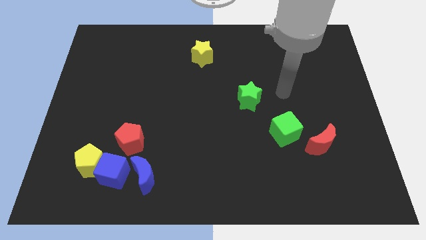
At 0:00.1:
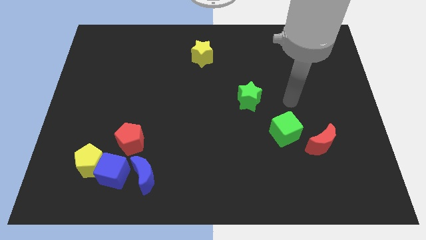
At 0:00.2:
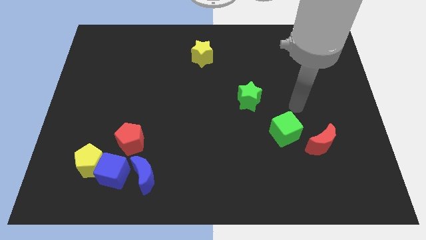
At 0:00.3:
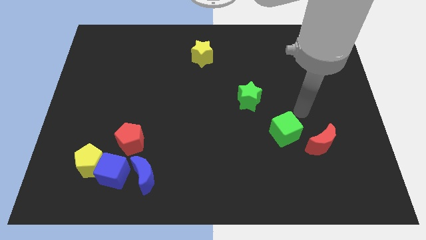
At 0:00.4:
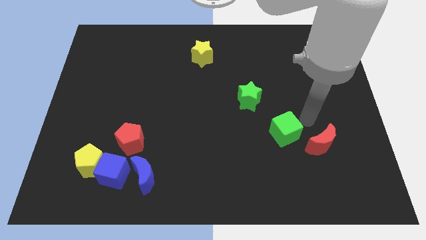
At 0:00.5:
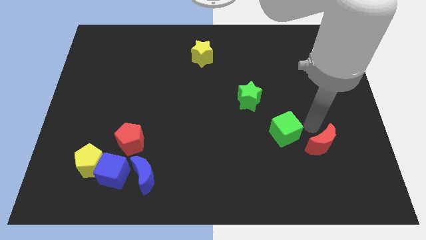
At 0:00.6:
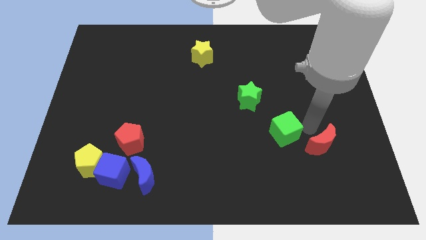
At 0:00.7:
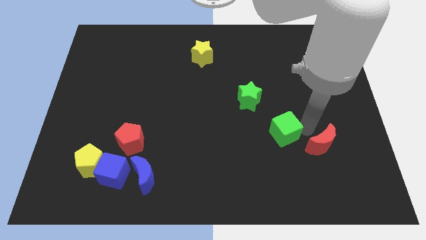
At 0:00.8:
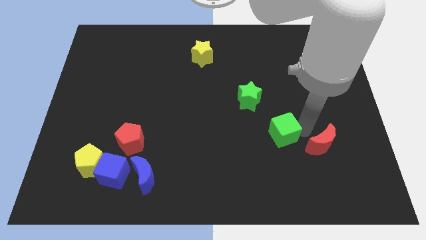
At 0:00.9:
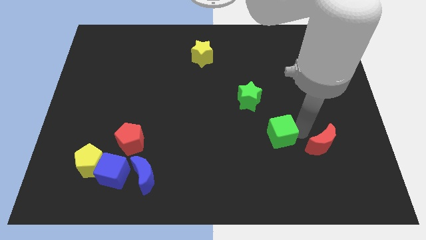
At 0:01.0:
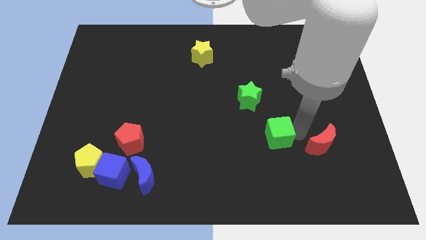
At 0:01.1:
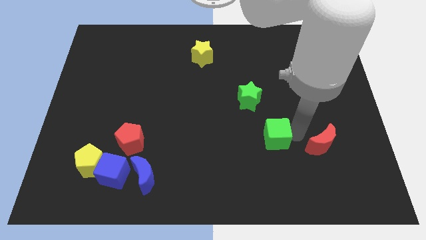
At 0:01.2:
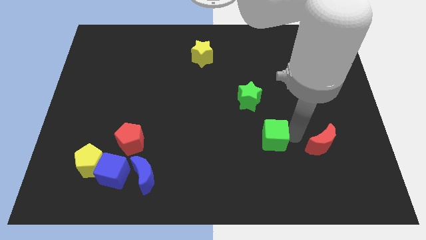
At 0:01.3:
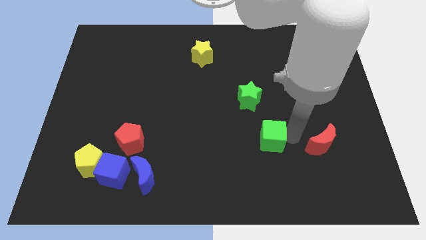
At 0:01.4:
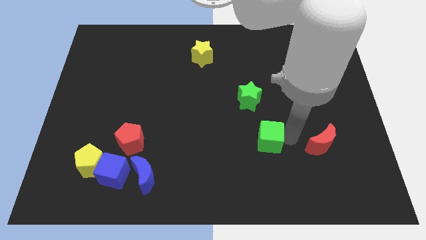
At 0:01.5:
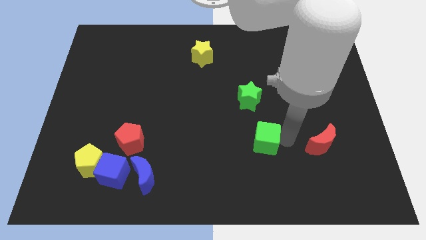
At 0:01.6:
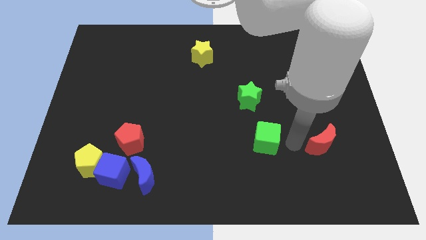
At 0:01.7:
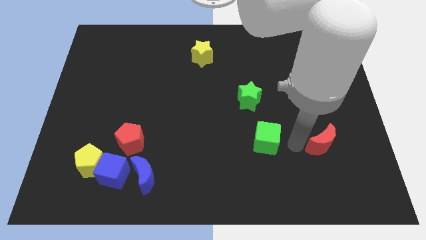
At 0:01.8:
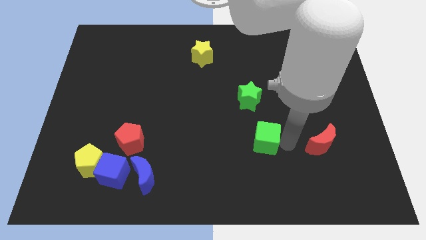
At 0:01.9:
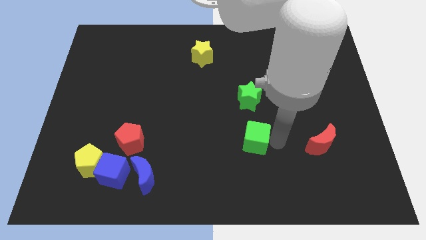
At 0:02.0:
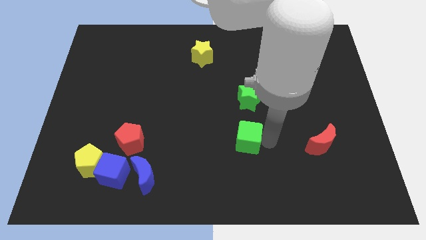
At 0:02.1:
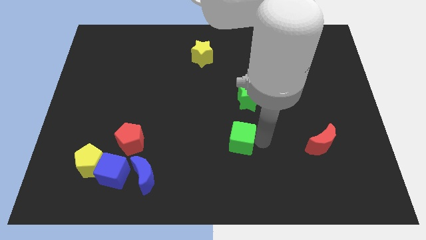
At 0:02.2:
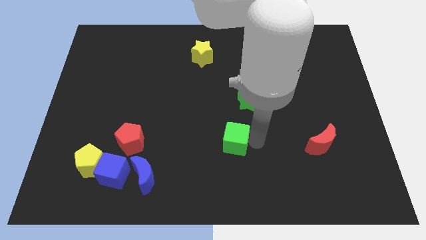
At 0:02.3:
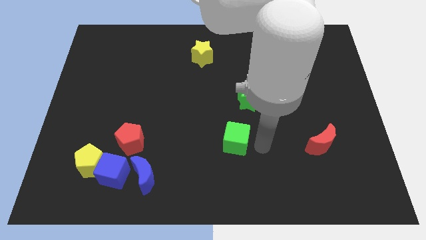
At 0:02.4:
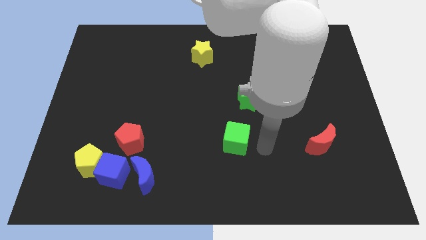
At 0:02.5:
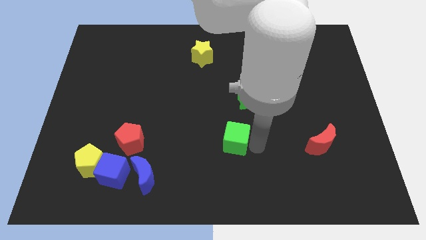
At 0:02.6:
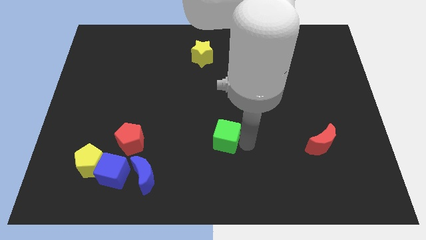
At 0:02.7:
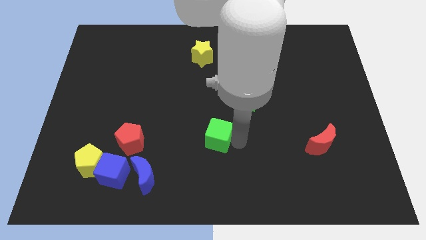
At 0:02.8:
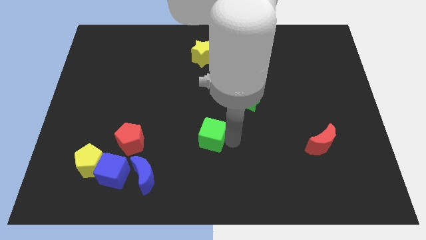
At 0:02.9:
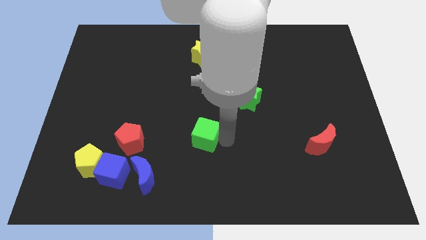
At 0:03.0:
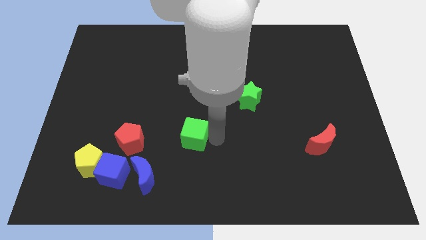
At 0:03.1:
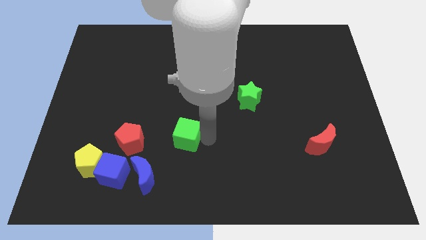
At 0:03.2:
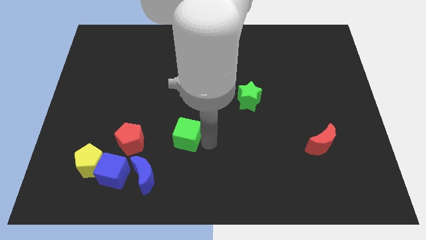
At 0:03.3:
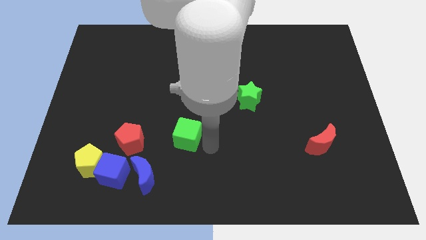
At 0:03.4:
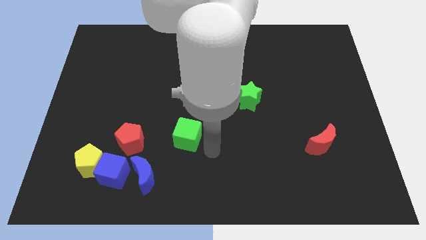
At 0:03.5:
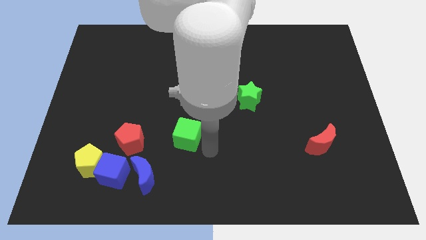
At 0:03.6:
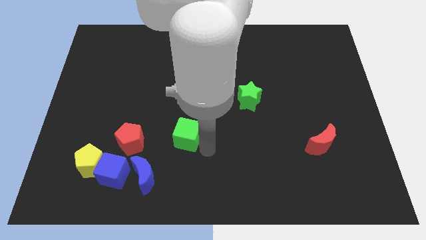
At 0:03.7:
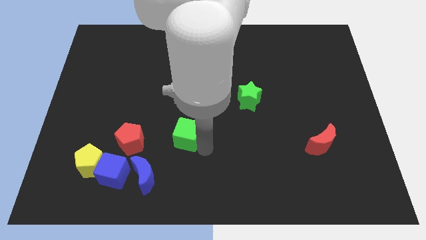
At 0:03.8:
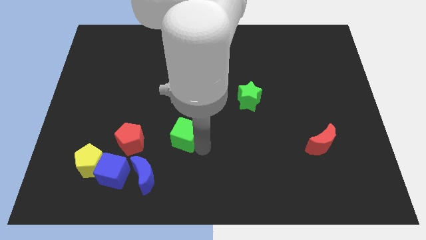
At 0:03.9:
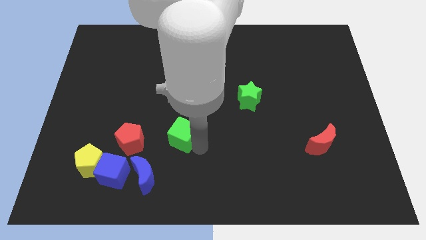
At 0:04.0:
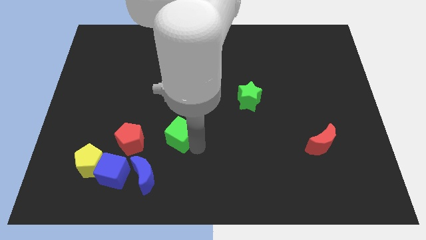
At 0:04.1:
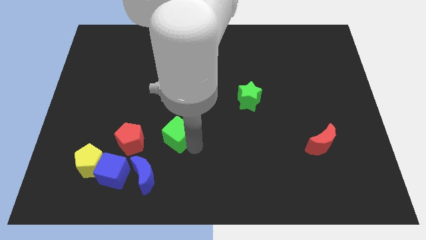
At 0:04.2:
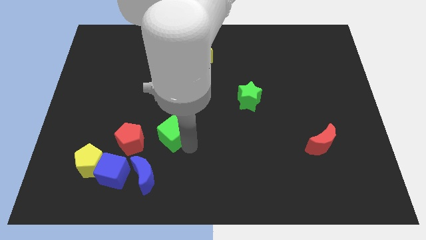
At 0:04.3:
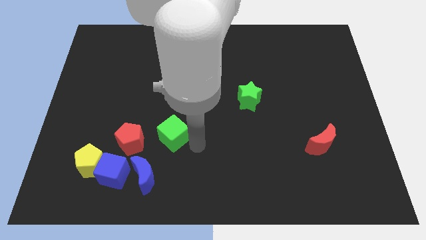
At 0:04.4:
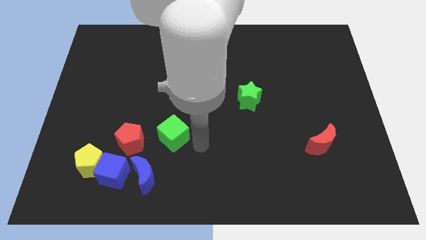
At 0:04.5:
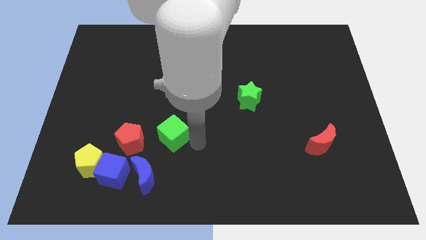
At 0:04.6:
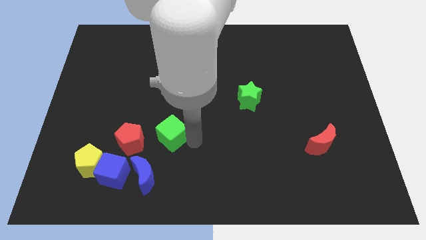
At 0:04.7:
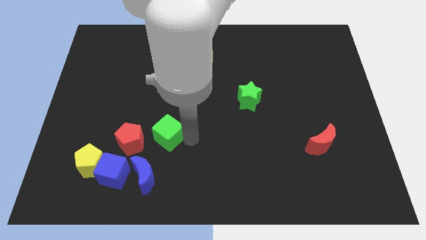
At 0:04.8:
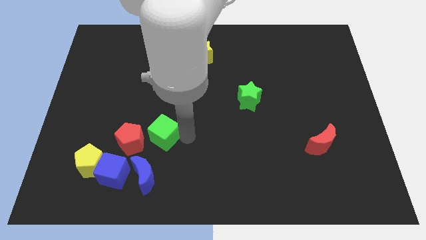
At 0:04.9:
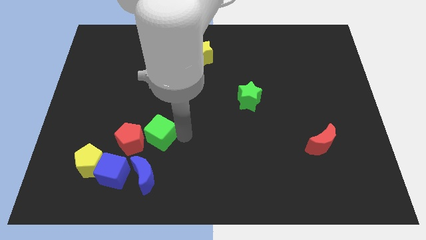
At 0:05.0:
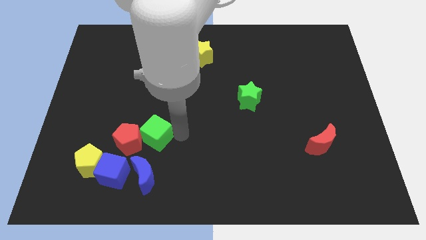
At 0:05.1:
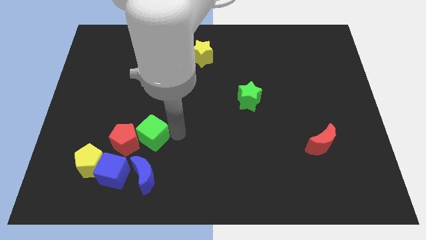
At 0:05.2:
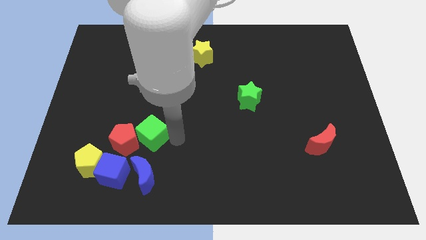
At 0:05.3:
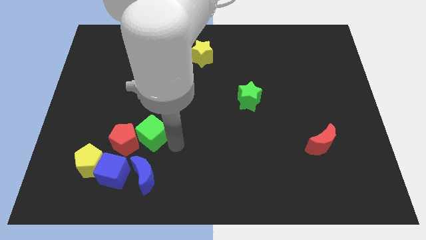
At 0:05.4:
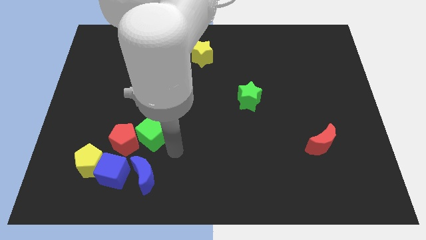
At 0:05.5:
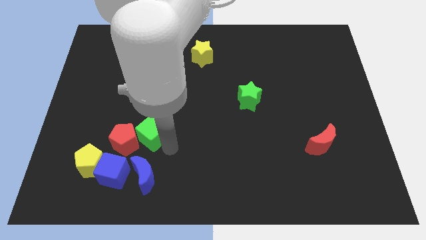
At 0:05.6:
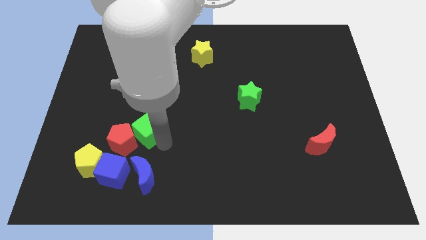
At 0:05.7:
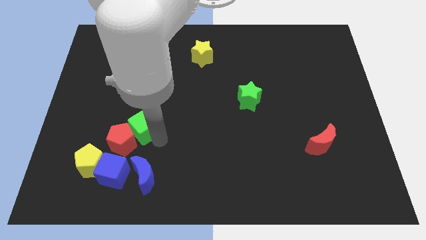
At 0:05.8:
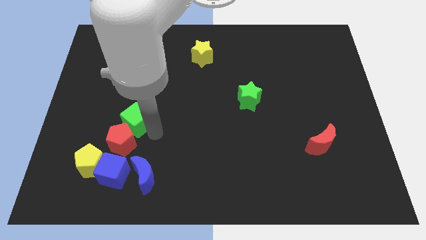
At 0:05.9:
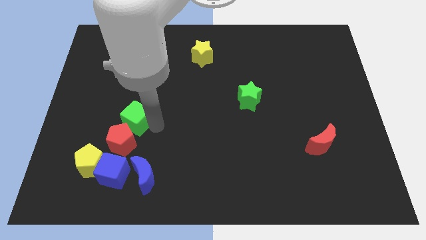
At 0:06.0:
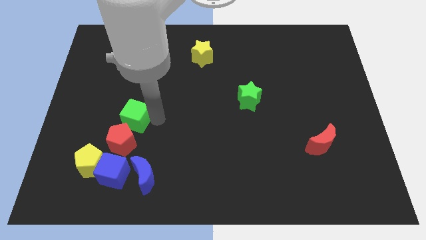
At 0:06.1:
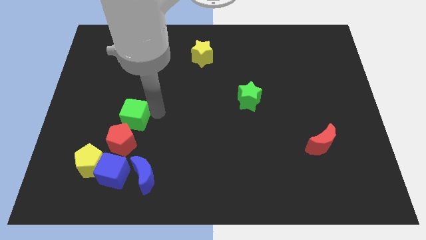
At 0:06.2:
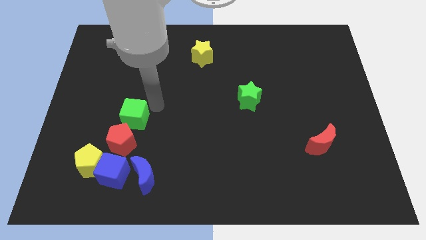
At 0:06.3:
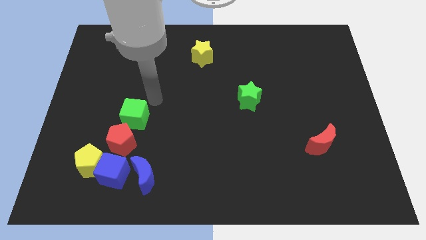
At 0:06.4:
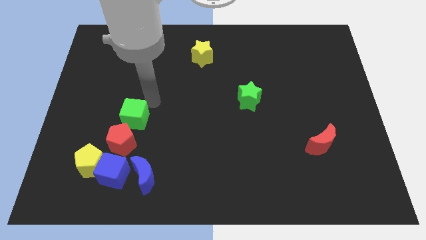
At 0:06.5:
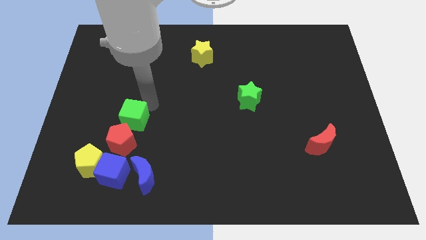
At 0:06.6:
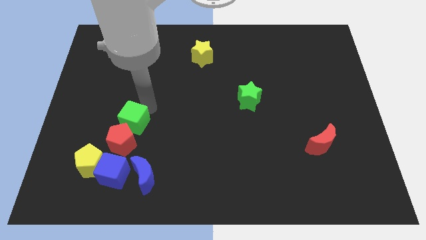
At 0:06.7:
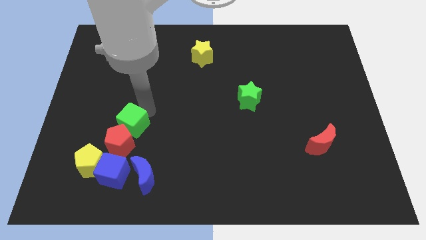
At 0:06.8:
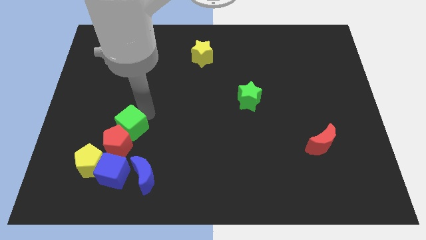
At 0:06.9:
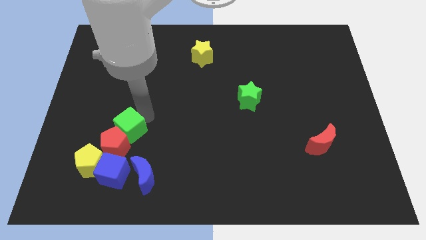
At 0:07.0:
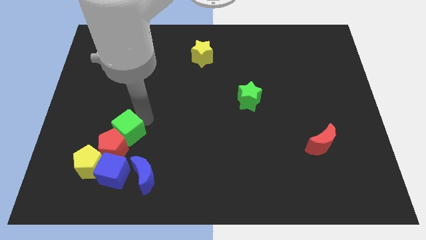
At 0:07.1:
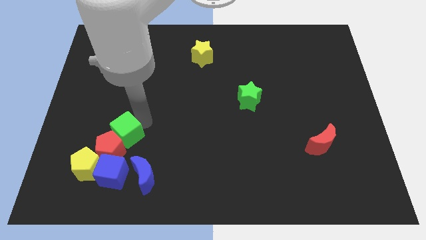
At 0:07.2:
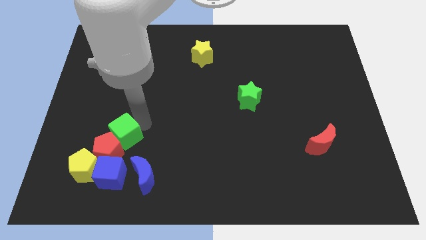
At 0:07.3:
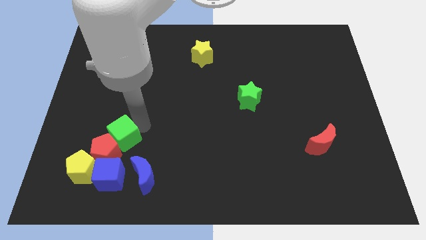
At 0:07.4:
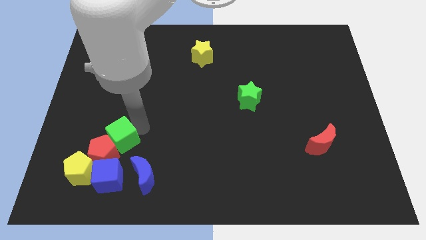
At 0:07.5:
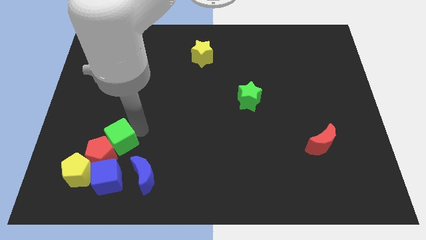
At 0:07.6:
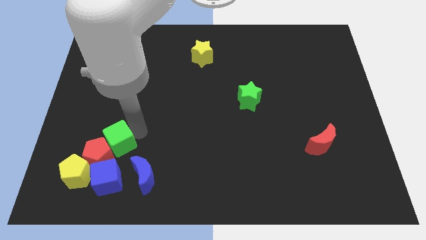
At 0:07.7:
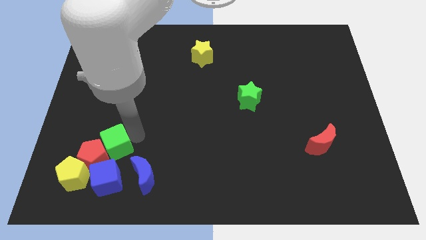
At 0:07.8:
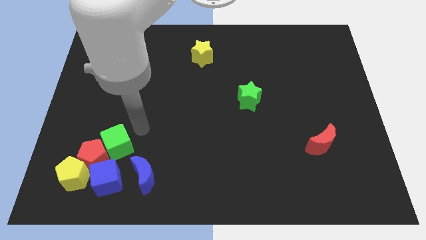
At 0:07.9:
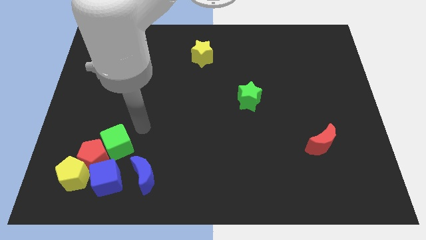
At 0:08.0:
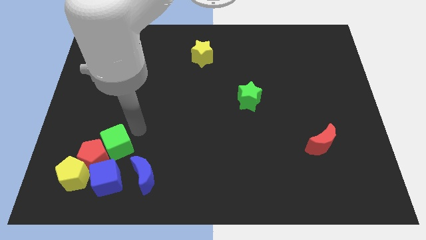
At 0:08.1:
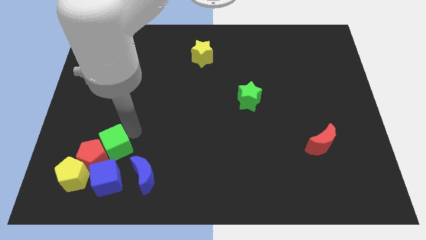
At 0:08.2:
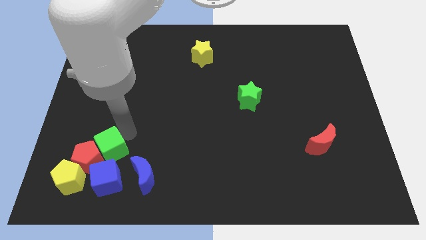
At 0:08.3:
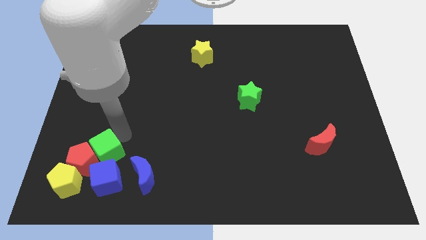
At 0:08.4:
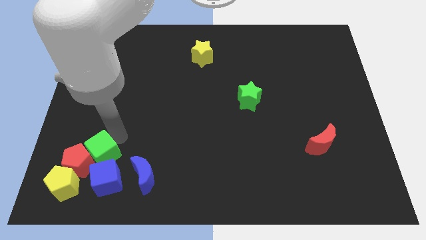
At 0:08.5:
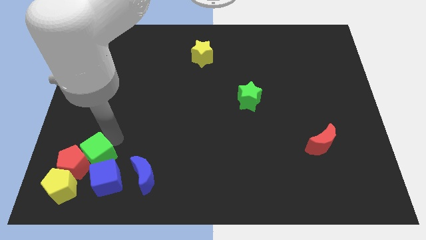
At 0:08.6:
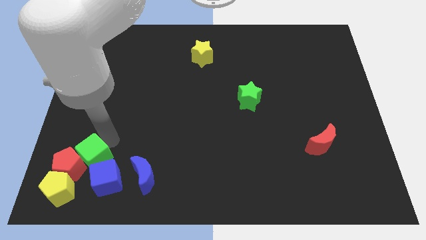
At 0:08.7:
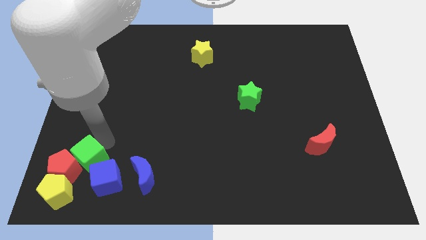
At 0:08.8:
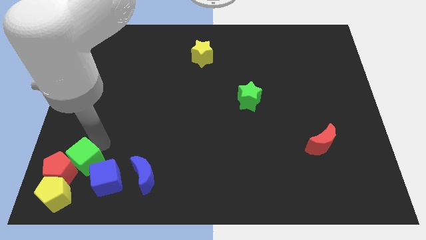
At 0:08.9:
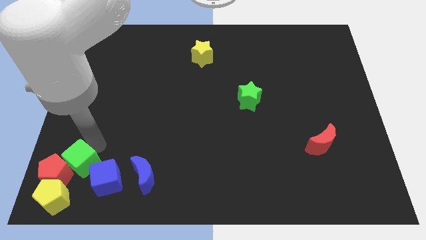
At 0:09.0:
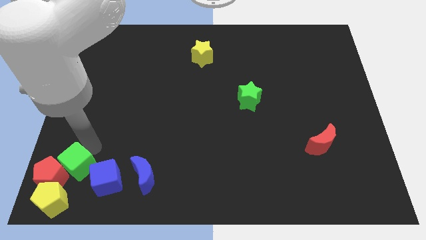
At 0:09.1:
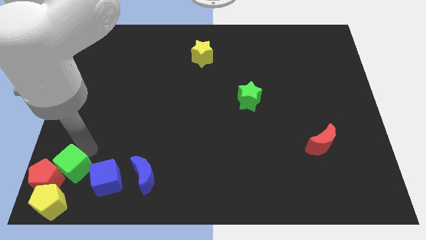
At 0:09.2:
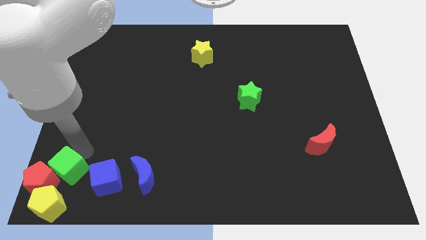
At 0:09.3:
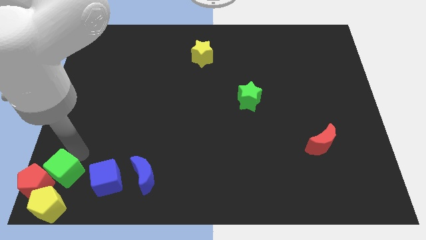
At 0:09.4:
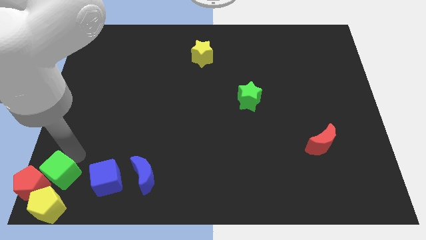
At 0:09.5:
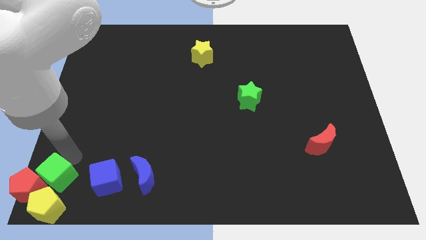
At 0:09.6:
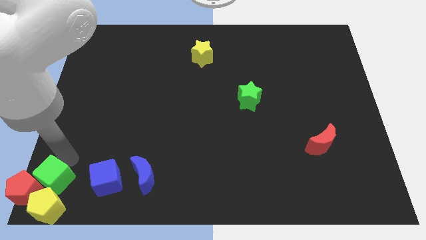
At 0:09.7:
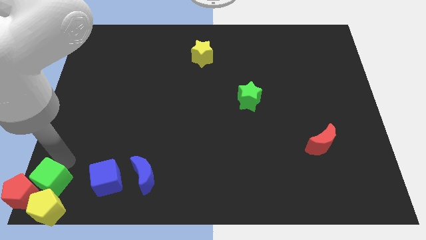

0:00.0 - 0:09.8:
put the green cube towards the yellow pentagon
